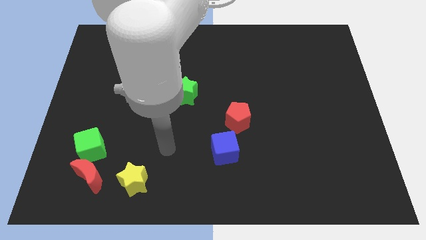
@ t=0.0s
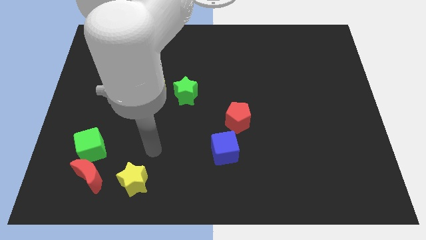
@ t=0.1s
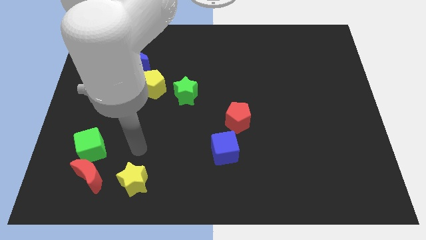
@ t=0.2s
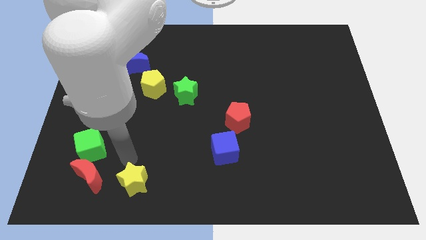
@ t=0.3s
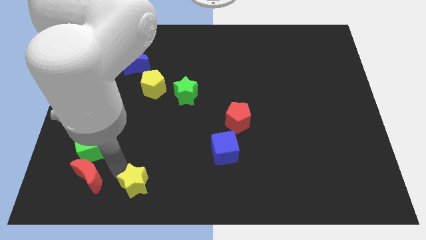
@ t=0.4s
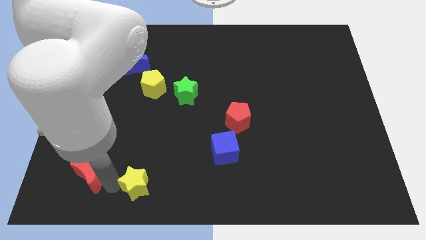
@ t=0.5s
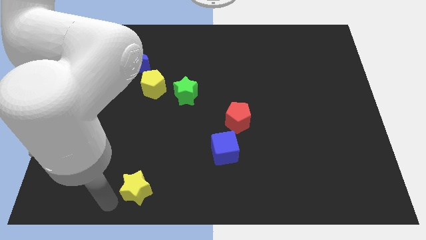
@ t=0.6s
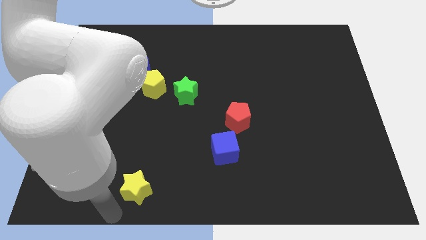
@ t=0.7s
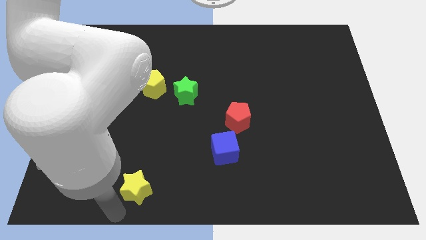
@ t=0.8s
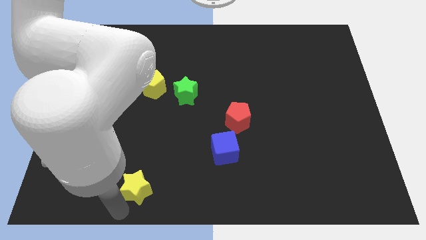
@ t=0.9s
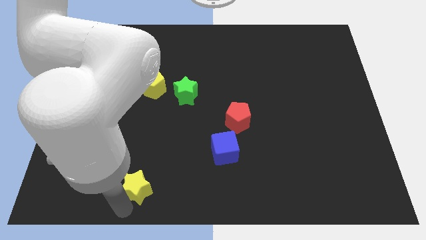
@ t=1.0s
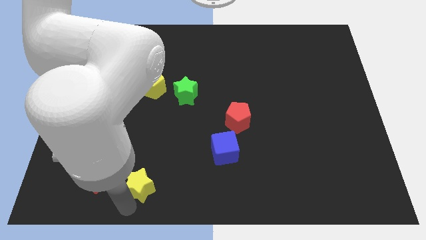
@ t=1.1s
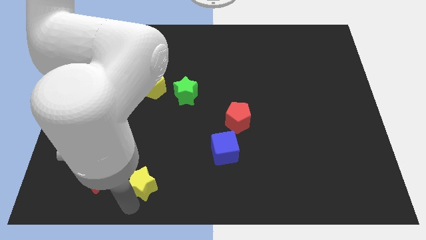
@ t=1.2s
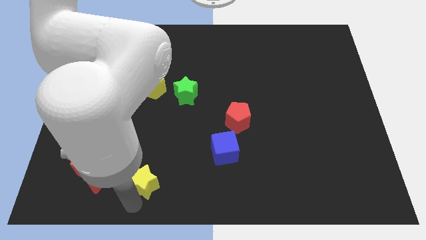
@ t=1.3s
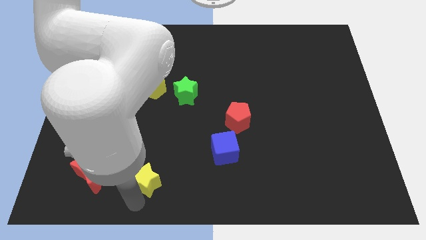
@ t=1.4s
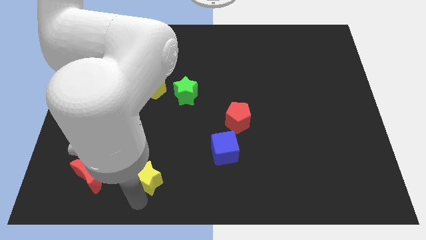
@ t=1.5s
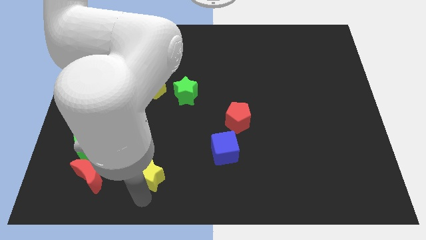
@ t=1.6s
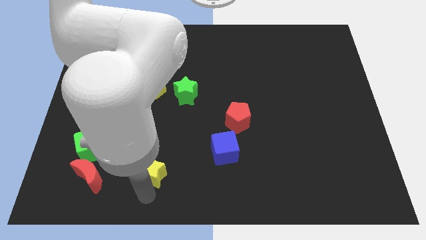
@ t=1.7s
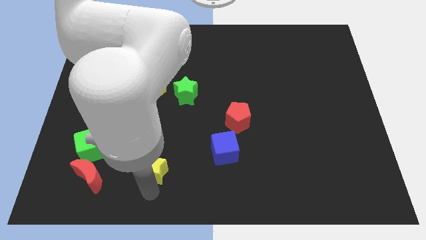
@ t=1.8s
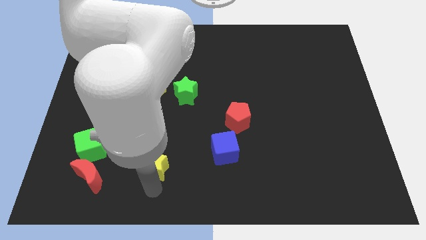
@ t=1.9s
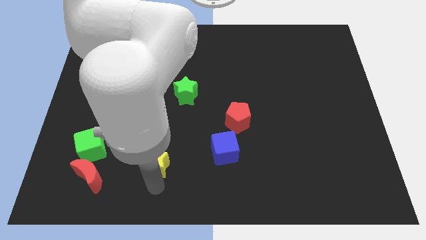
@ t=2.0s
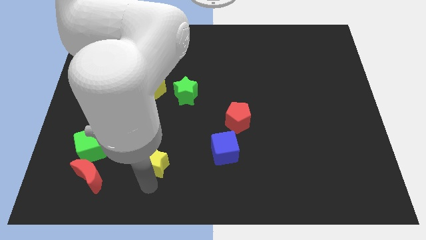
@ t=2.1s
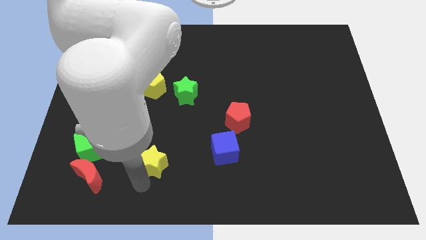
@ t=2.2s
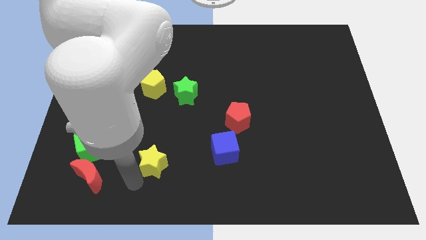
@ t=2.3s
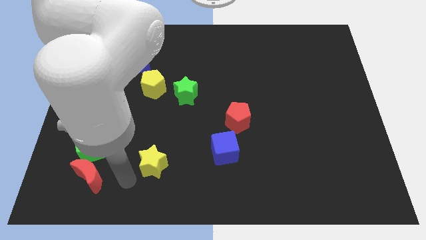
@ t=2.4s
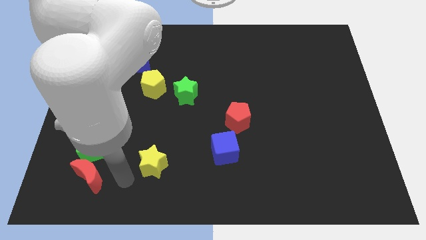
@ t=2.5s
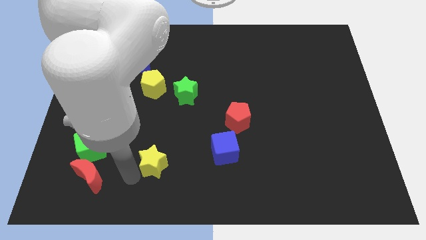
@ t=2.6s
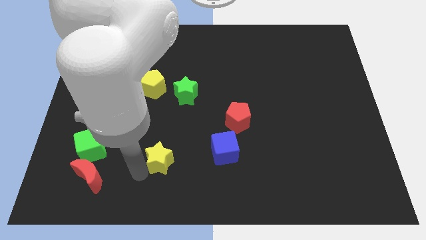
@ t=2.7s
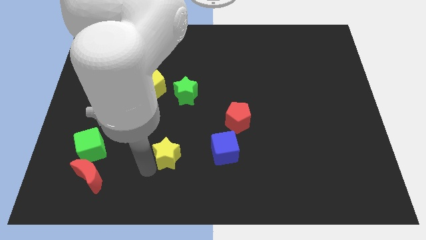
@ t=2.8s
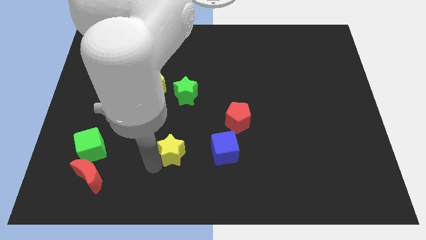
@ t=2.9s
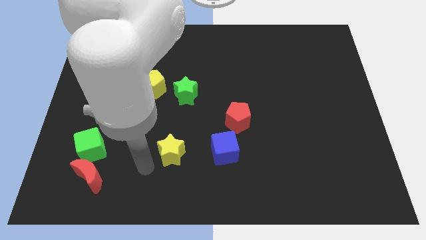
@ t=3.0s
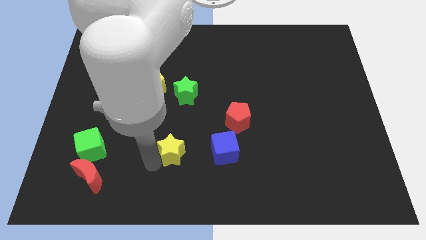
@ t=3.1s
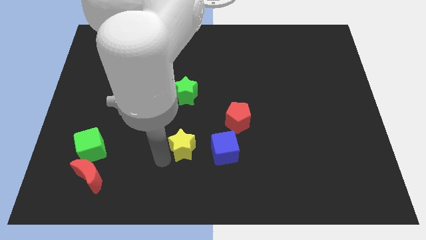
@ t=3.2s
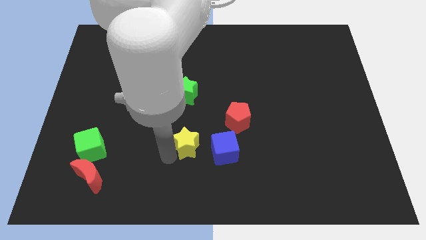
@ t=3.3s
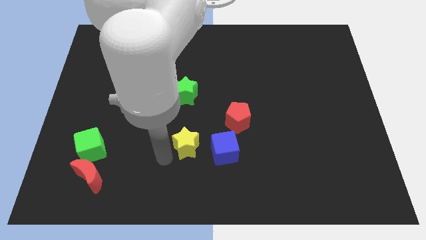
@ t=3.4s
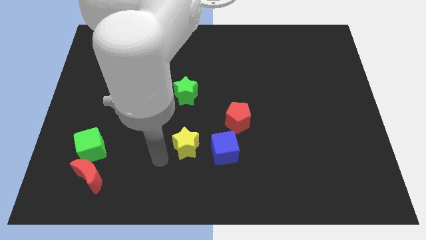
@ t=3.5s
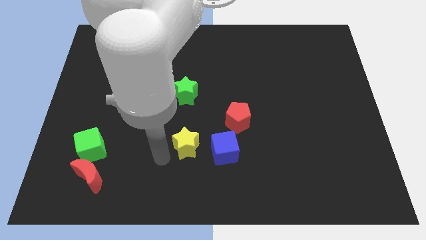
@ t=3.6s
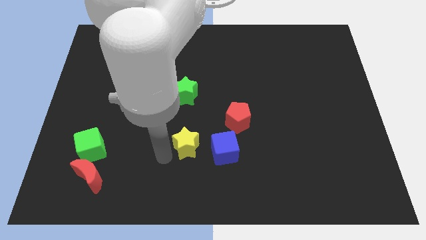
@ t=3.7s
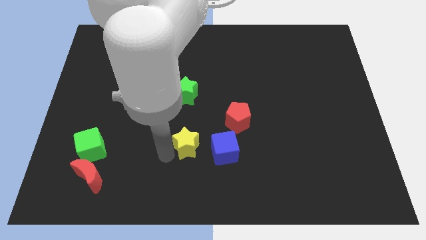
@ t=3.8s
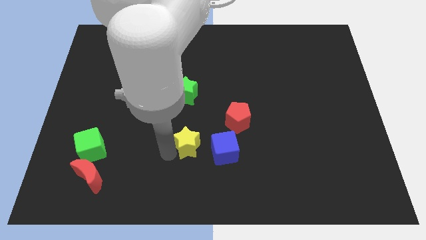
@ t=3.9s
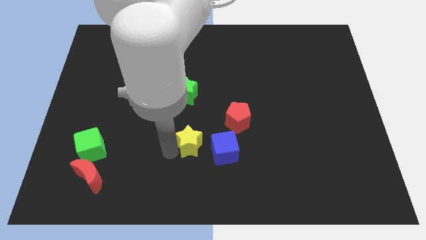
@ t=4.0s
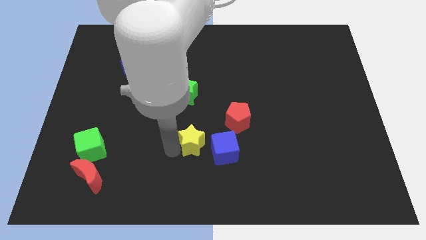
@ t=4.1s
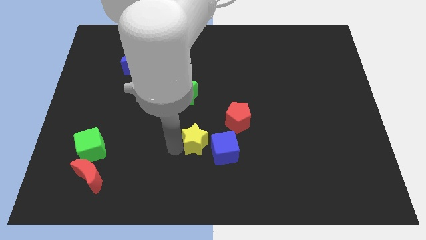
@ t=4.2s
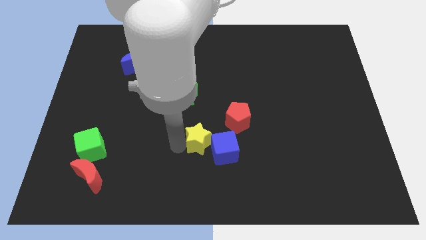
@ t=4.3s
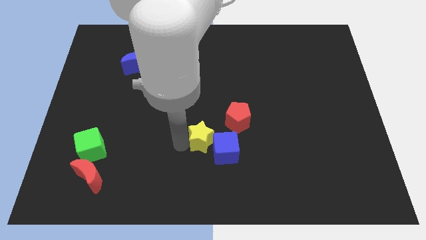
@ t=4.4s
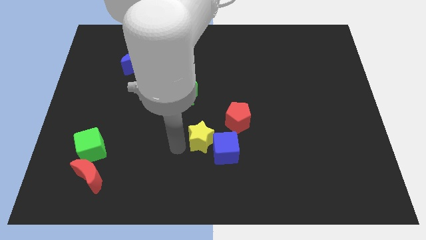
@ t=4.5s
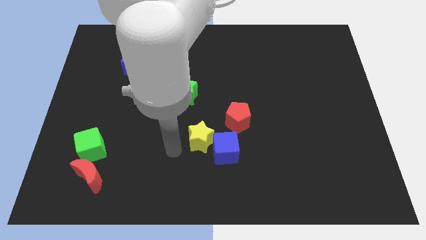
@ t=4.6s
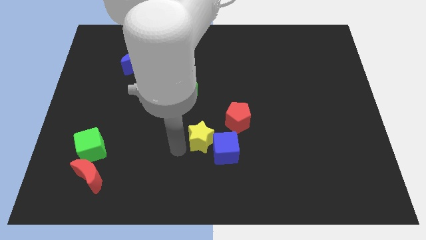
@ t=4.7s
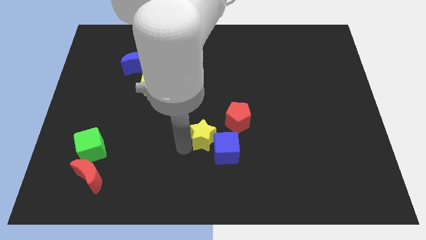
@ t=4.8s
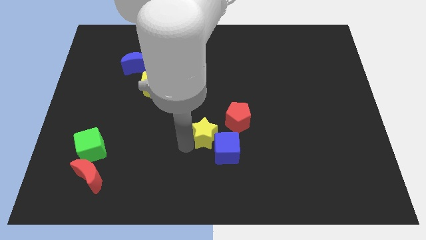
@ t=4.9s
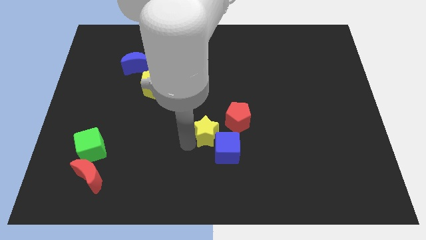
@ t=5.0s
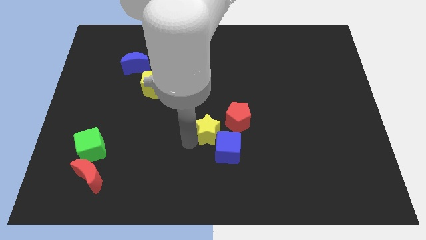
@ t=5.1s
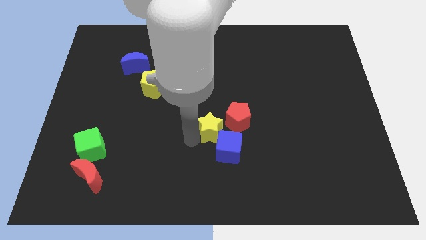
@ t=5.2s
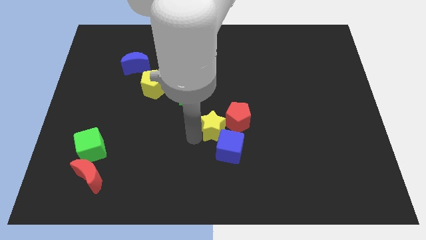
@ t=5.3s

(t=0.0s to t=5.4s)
move the yellow star towards the red pentagon

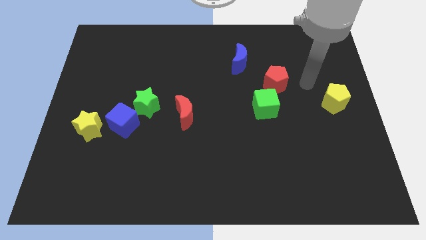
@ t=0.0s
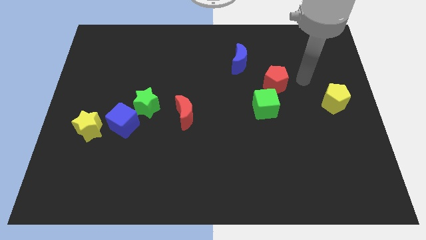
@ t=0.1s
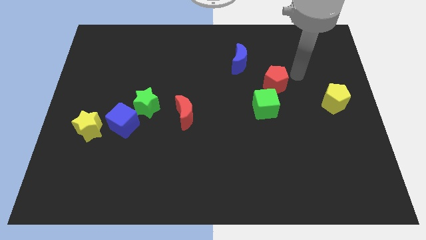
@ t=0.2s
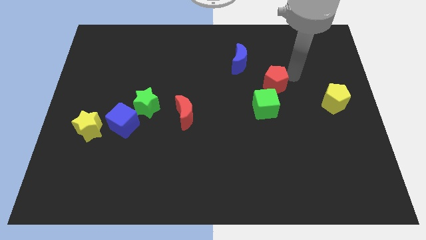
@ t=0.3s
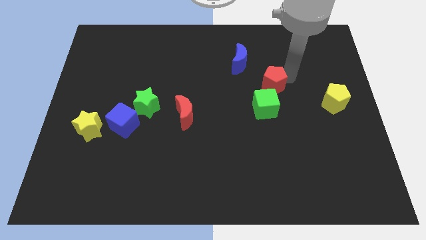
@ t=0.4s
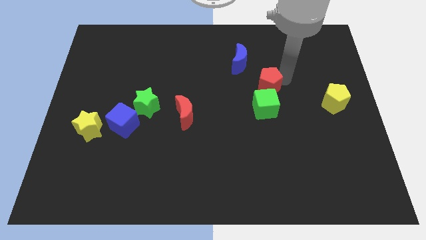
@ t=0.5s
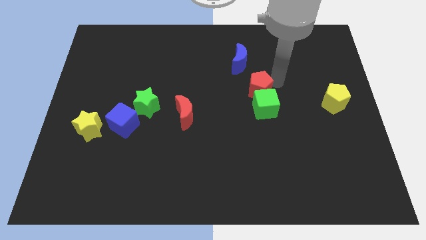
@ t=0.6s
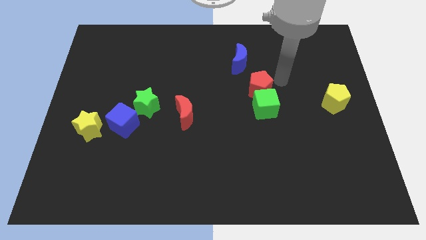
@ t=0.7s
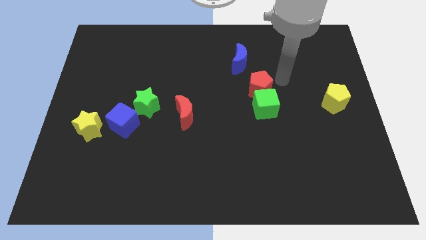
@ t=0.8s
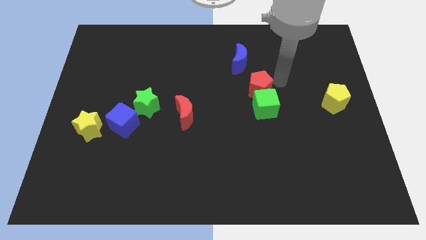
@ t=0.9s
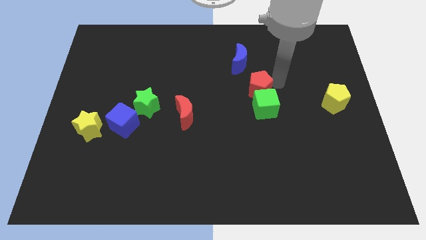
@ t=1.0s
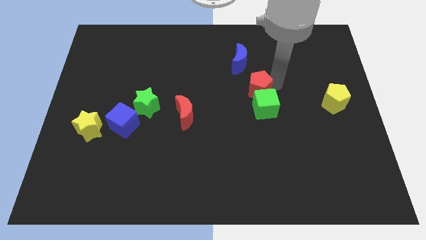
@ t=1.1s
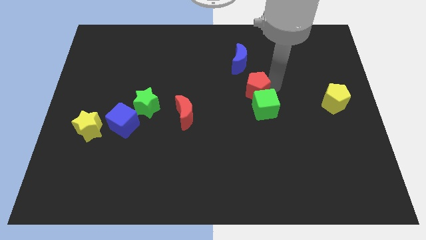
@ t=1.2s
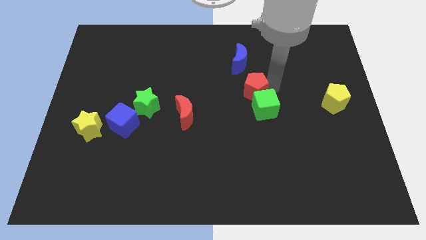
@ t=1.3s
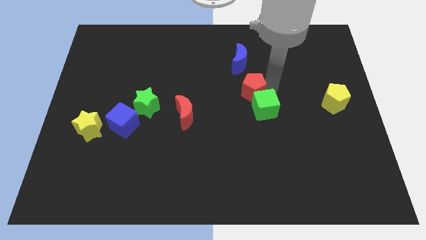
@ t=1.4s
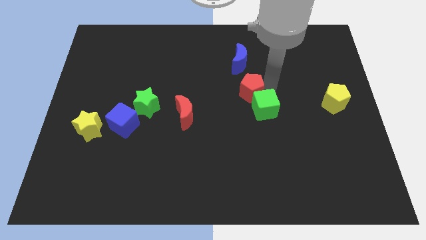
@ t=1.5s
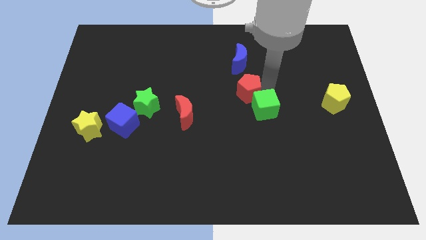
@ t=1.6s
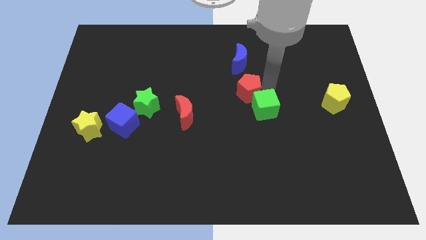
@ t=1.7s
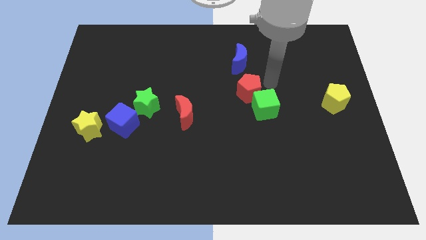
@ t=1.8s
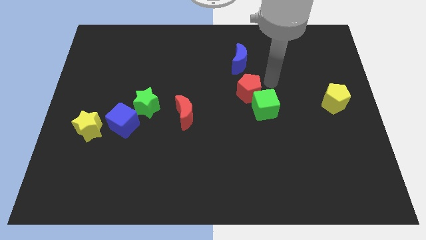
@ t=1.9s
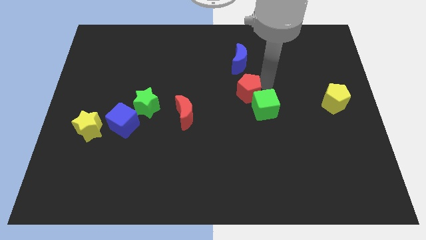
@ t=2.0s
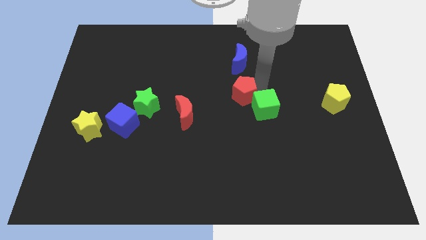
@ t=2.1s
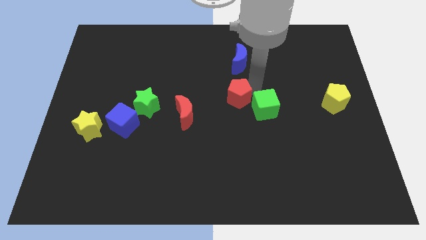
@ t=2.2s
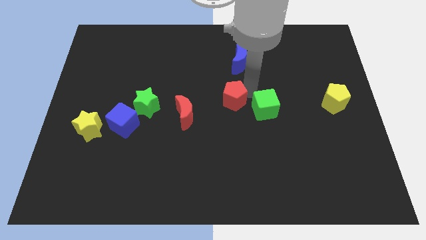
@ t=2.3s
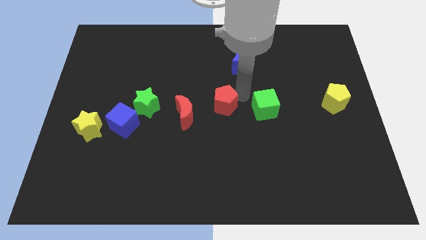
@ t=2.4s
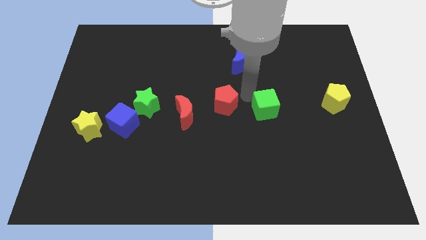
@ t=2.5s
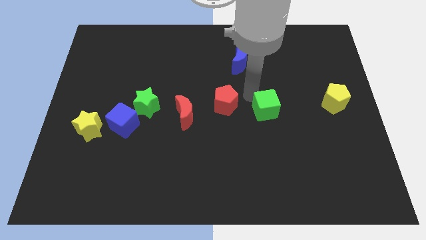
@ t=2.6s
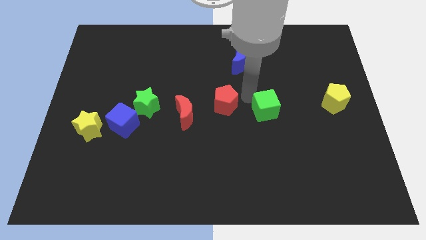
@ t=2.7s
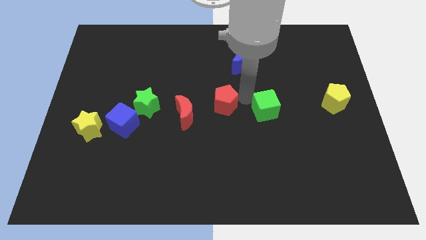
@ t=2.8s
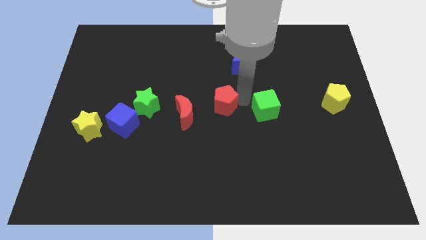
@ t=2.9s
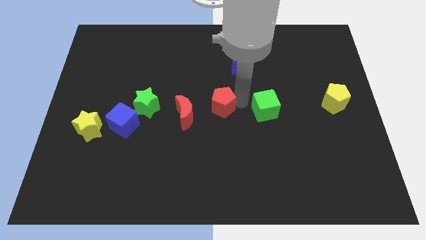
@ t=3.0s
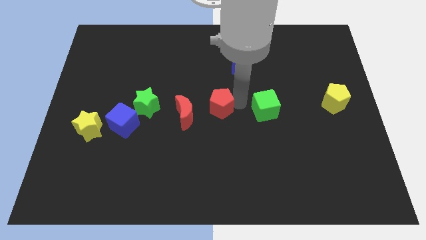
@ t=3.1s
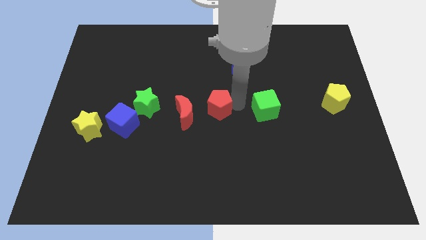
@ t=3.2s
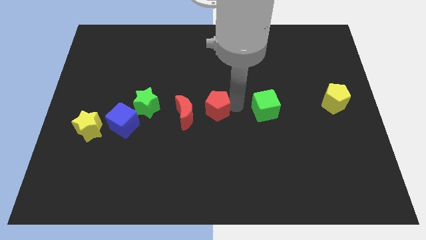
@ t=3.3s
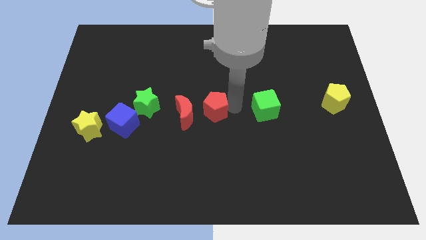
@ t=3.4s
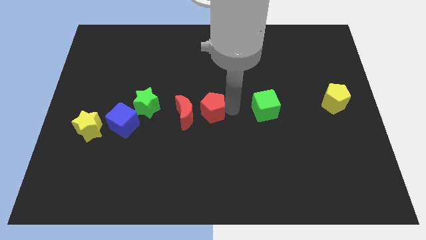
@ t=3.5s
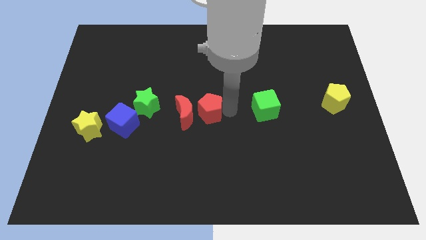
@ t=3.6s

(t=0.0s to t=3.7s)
move the red pentagon close to the red moon
